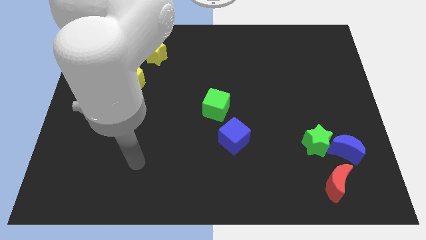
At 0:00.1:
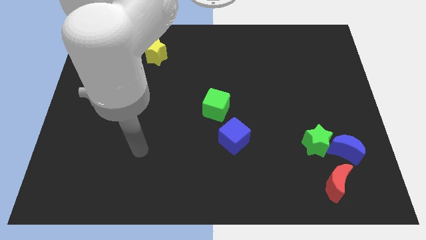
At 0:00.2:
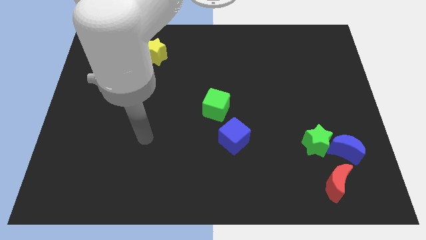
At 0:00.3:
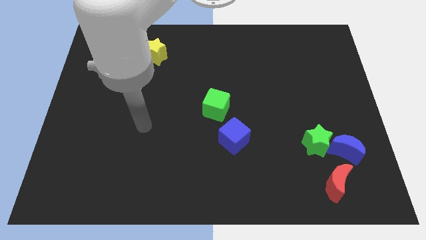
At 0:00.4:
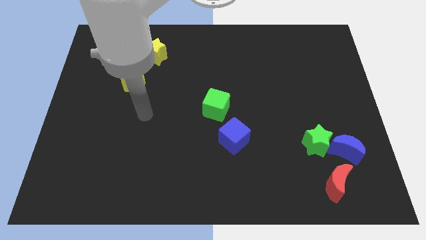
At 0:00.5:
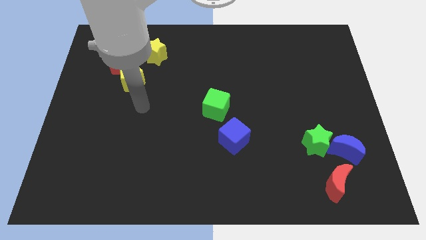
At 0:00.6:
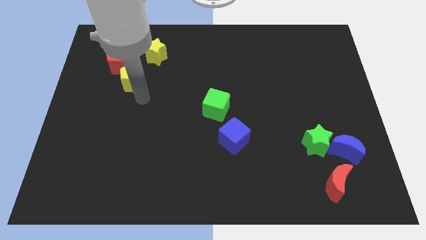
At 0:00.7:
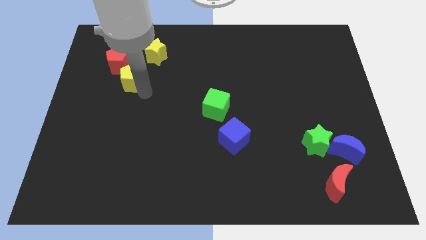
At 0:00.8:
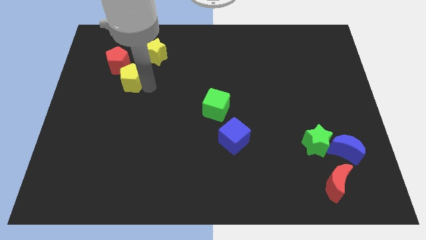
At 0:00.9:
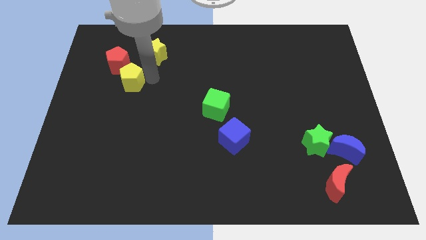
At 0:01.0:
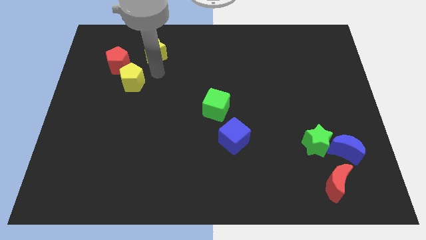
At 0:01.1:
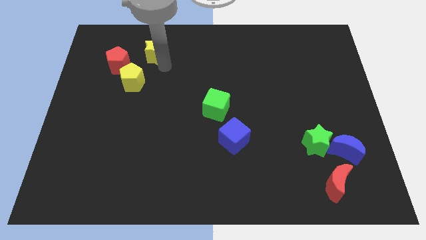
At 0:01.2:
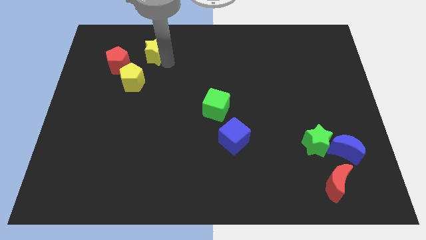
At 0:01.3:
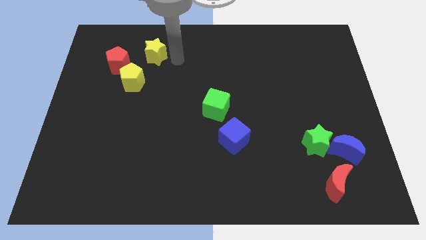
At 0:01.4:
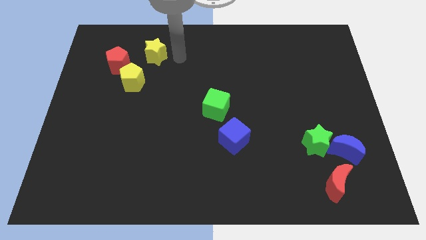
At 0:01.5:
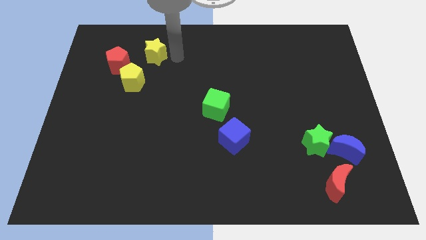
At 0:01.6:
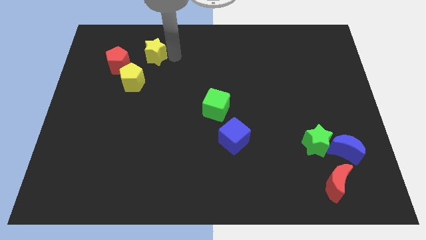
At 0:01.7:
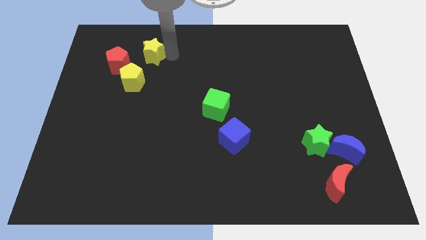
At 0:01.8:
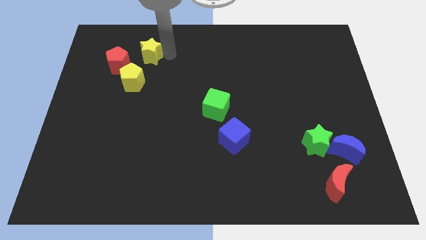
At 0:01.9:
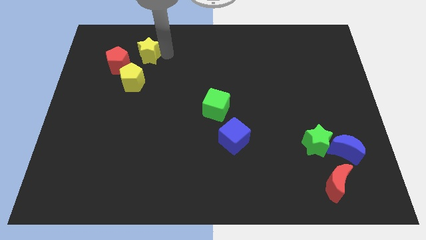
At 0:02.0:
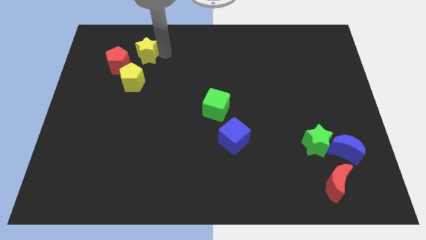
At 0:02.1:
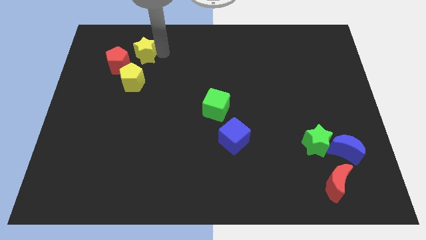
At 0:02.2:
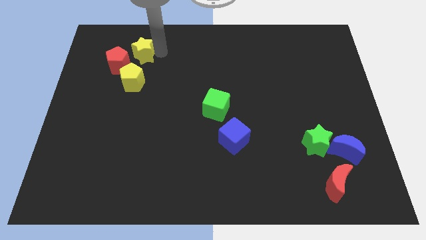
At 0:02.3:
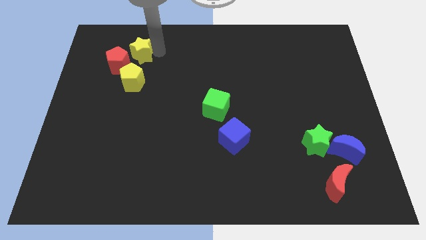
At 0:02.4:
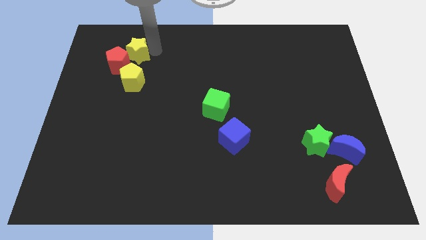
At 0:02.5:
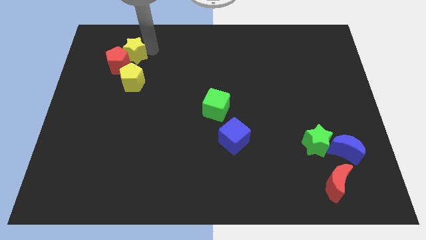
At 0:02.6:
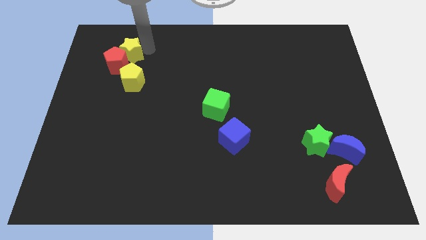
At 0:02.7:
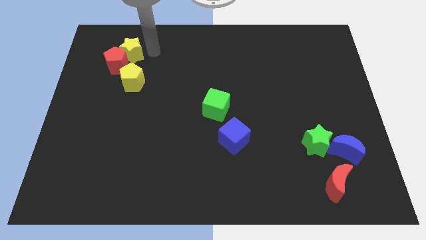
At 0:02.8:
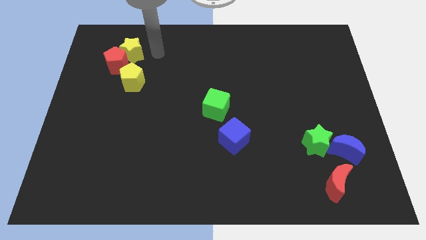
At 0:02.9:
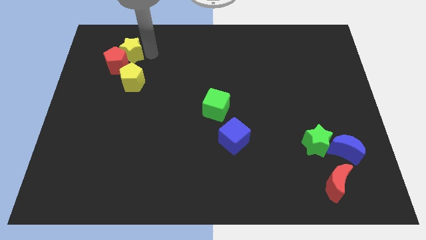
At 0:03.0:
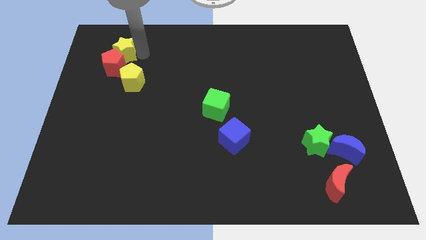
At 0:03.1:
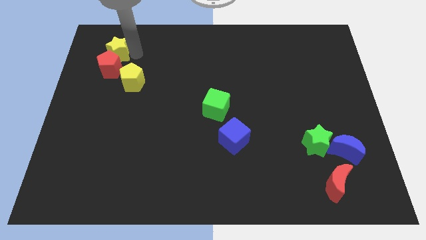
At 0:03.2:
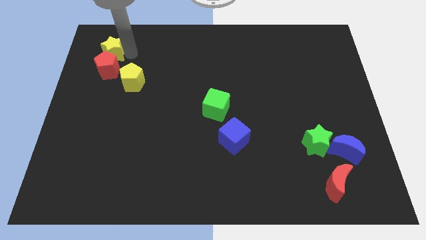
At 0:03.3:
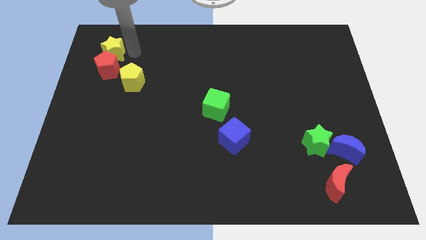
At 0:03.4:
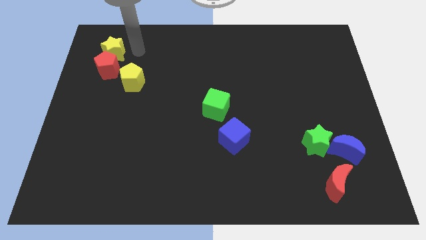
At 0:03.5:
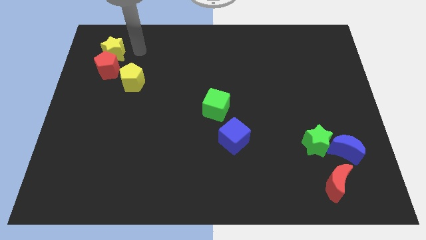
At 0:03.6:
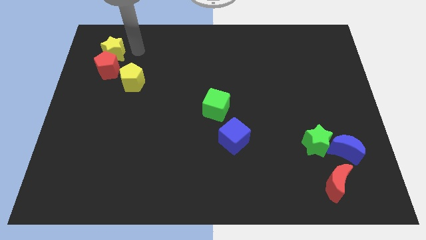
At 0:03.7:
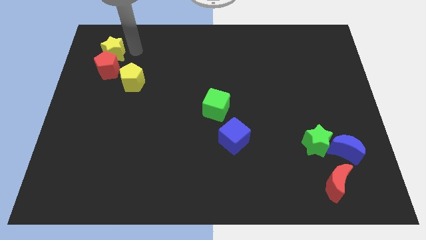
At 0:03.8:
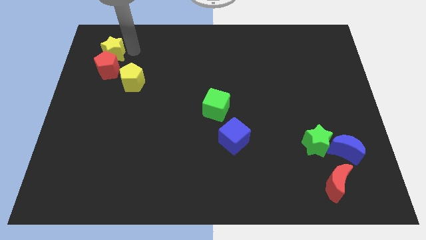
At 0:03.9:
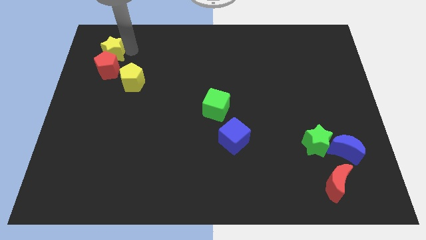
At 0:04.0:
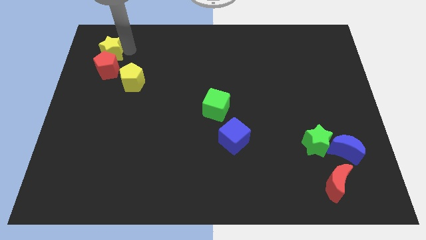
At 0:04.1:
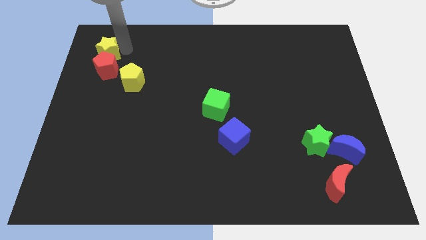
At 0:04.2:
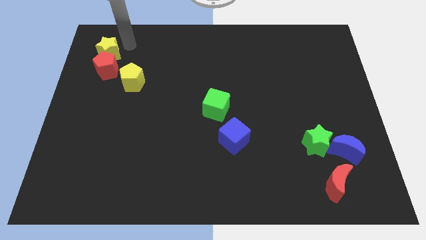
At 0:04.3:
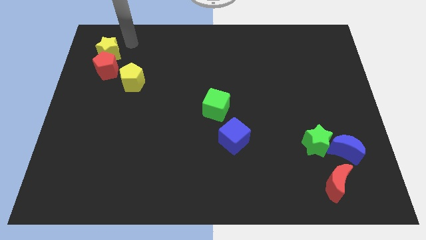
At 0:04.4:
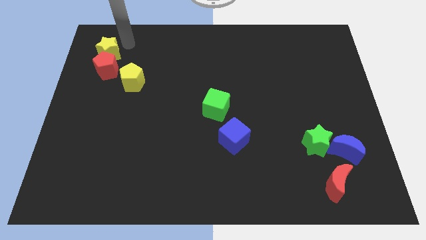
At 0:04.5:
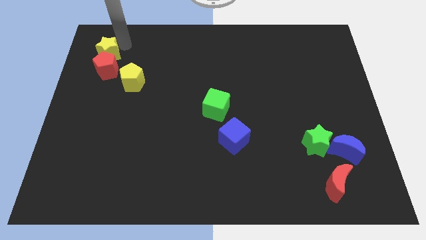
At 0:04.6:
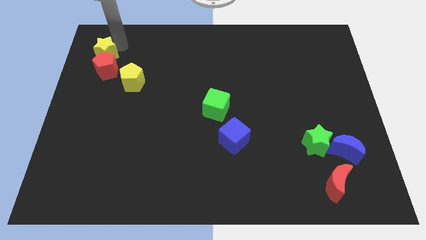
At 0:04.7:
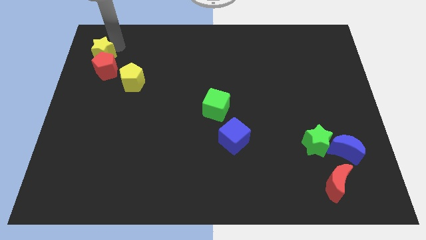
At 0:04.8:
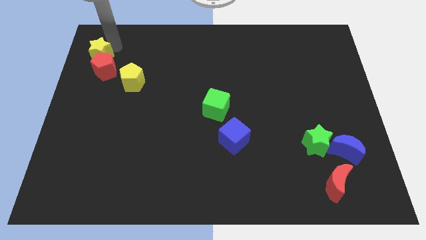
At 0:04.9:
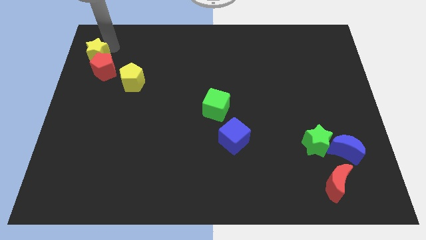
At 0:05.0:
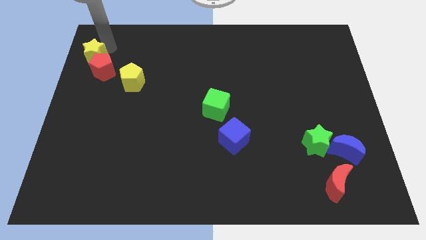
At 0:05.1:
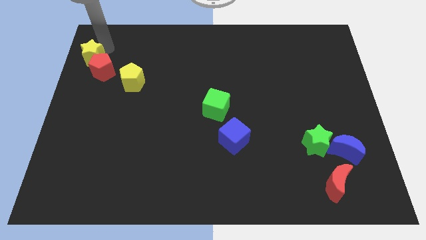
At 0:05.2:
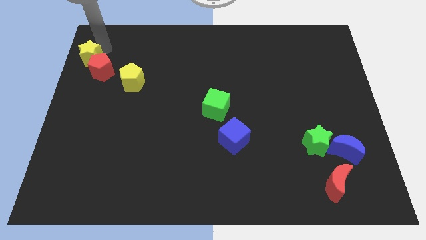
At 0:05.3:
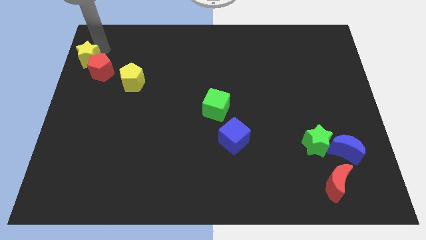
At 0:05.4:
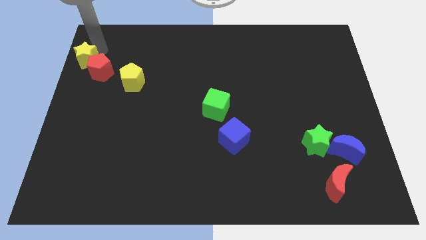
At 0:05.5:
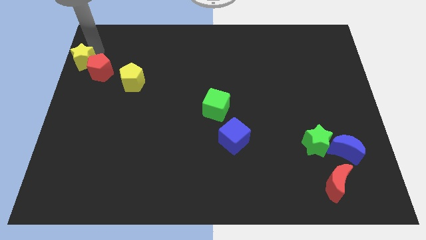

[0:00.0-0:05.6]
move the yellow star to the left side

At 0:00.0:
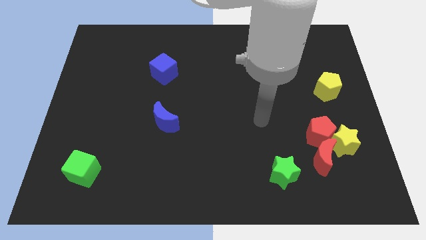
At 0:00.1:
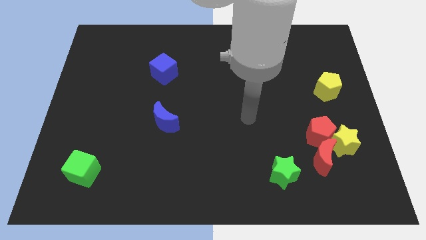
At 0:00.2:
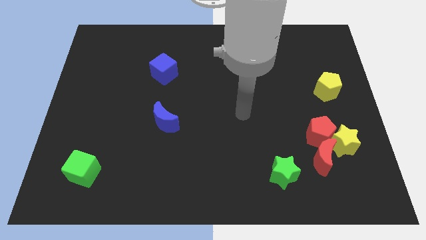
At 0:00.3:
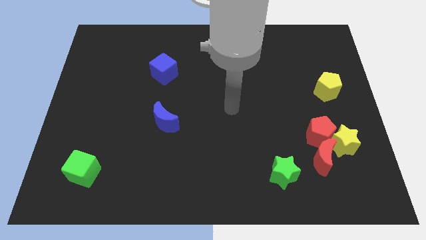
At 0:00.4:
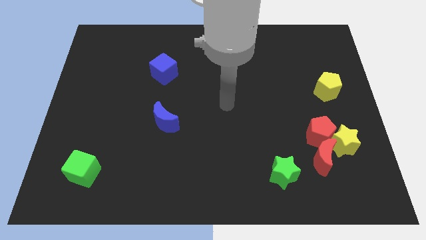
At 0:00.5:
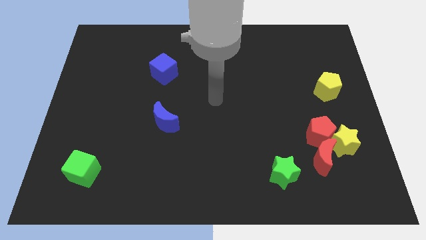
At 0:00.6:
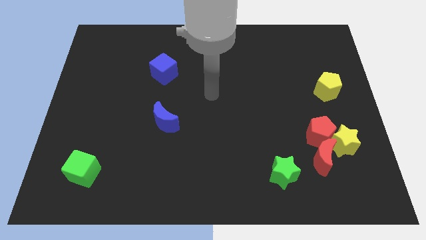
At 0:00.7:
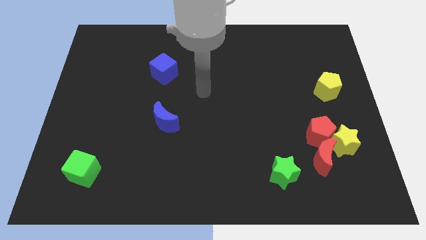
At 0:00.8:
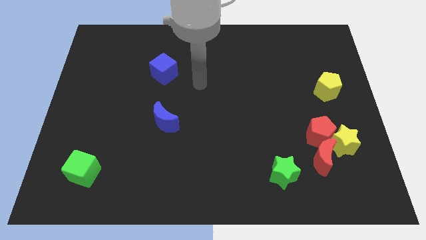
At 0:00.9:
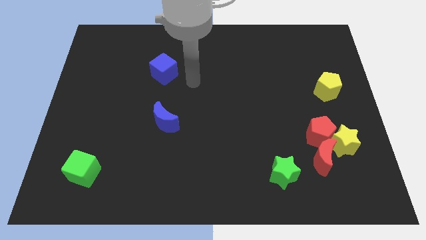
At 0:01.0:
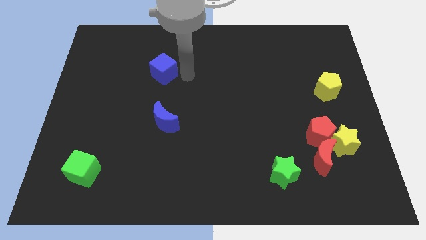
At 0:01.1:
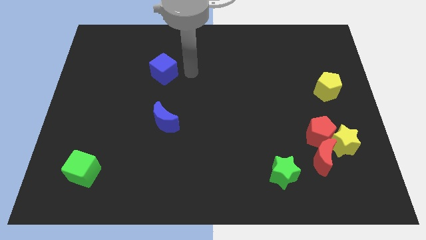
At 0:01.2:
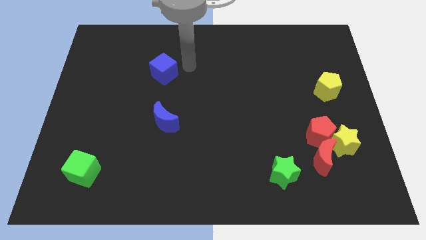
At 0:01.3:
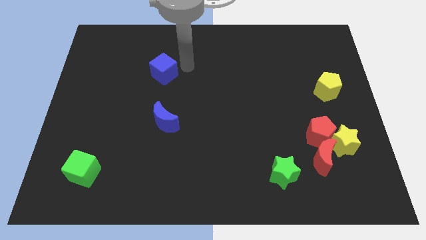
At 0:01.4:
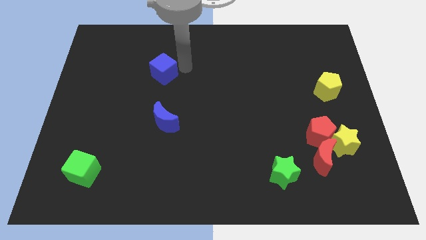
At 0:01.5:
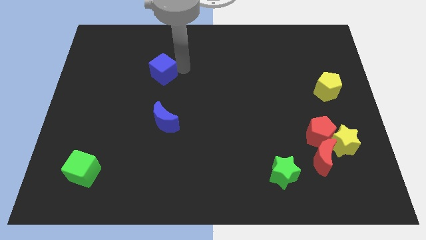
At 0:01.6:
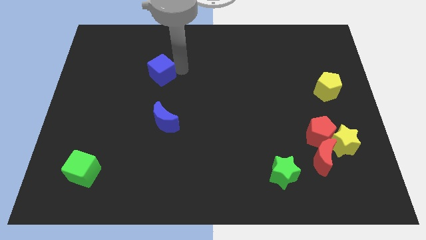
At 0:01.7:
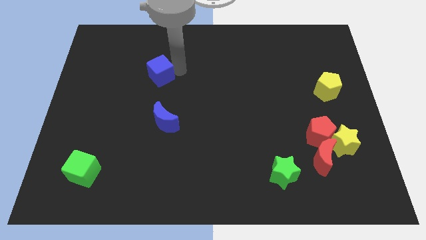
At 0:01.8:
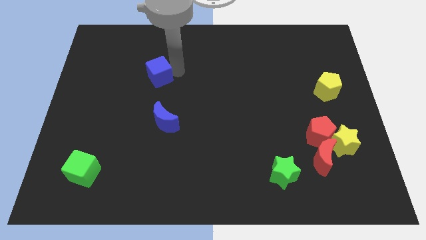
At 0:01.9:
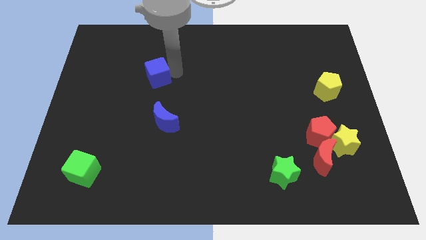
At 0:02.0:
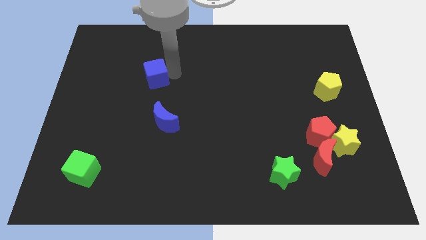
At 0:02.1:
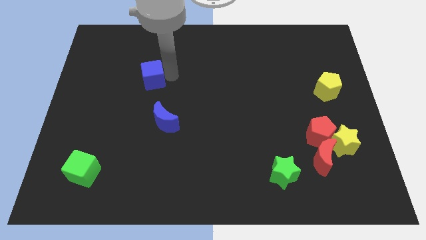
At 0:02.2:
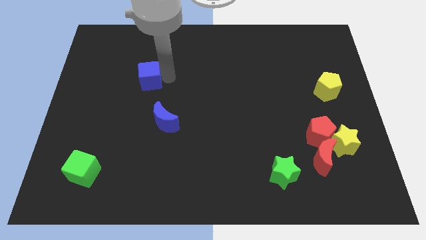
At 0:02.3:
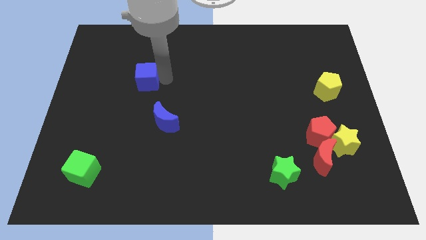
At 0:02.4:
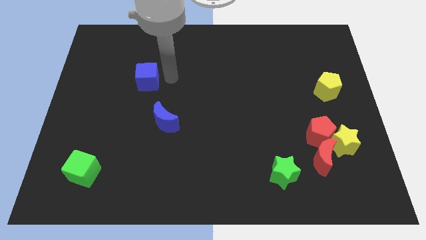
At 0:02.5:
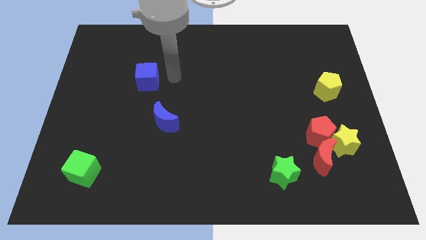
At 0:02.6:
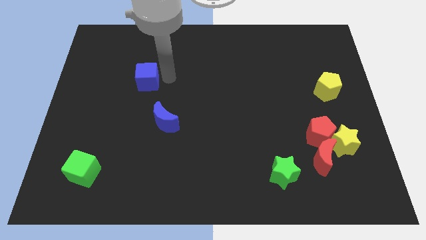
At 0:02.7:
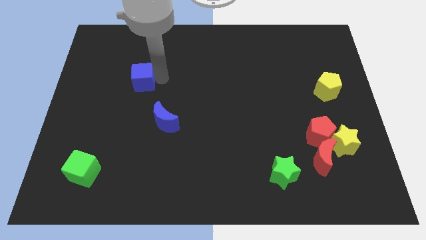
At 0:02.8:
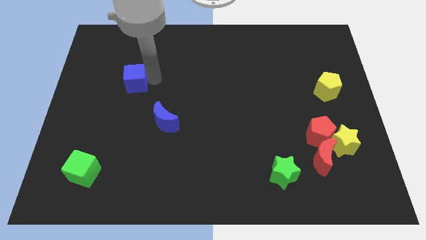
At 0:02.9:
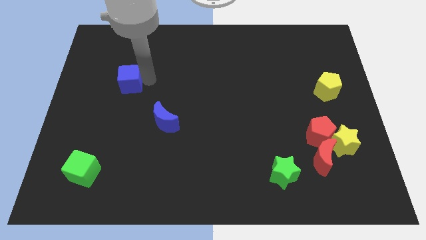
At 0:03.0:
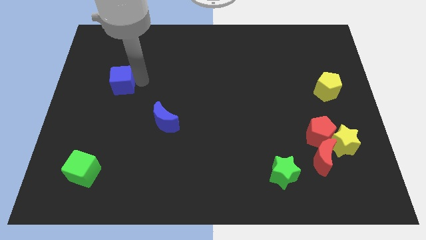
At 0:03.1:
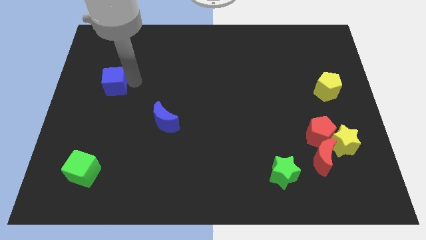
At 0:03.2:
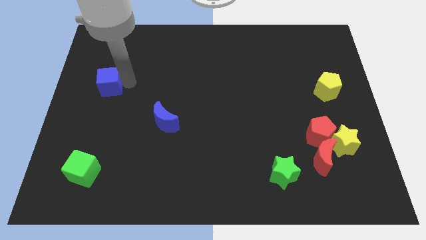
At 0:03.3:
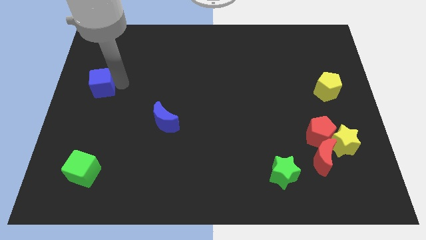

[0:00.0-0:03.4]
move the blue cube to the left side
